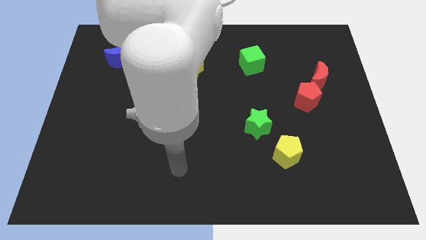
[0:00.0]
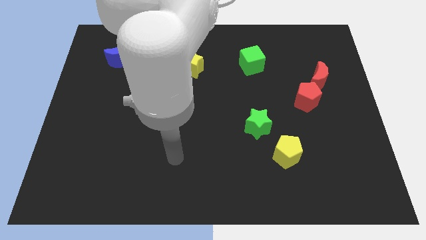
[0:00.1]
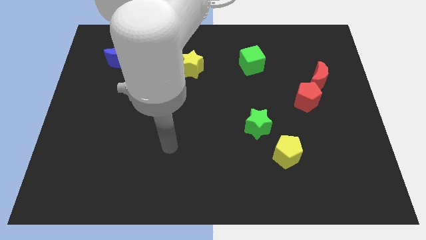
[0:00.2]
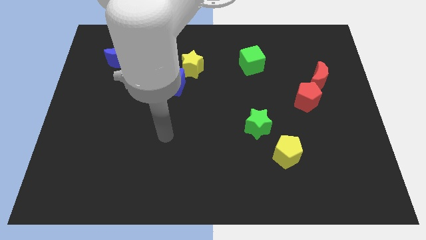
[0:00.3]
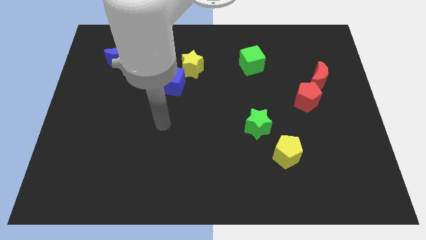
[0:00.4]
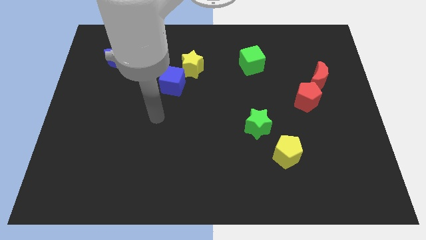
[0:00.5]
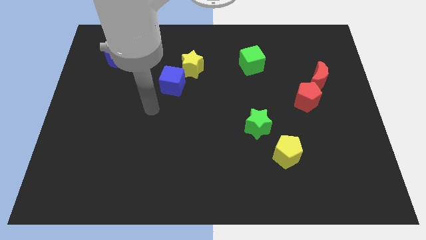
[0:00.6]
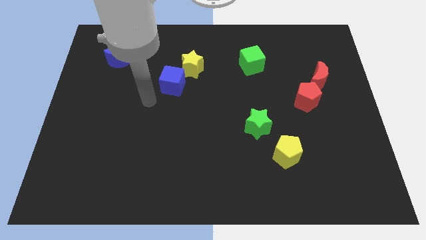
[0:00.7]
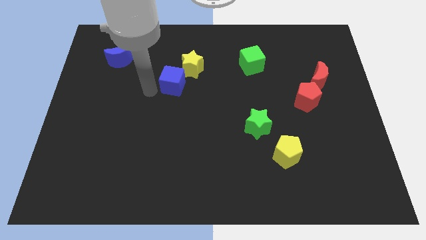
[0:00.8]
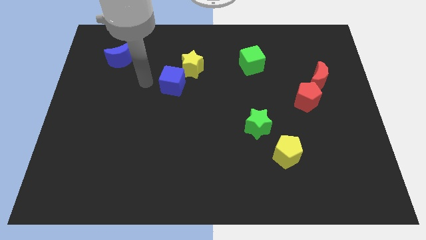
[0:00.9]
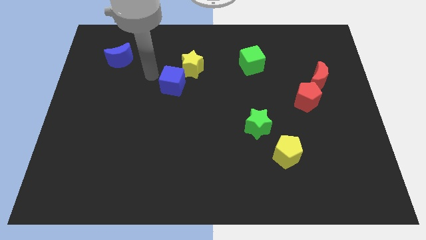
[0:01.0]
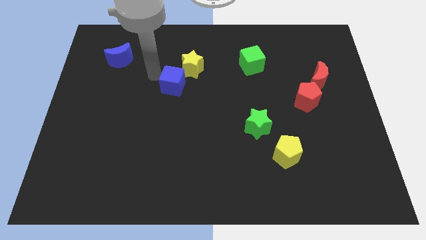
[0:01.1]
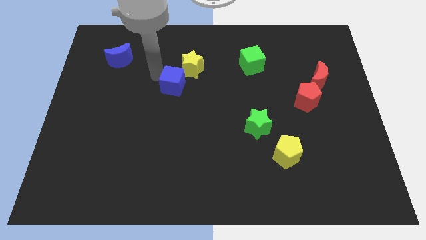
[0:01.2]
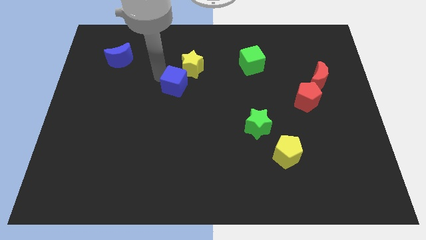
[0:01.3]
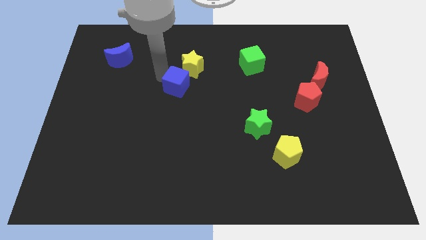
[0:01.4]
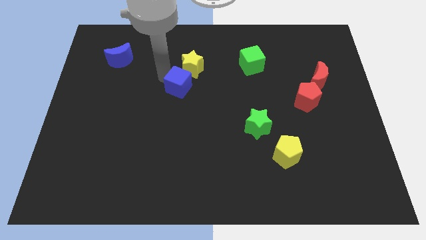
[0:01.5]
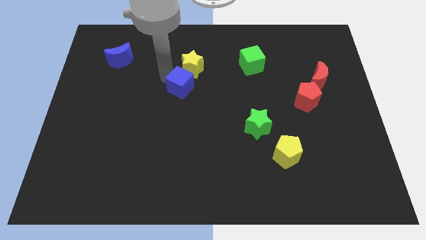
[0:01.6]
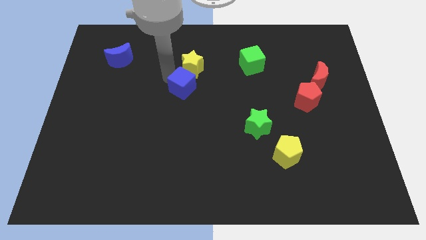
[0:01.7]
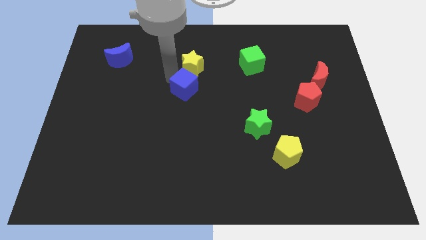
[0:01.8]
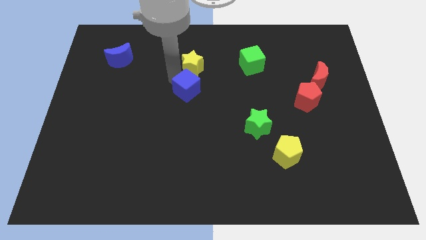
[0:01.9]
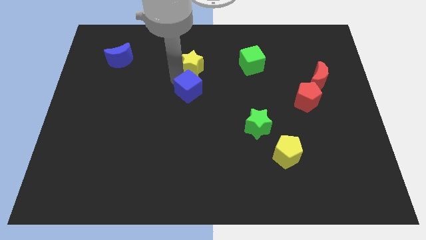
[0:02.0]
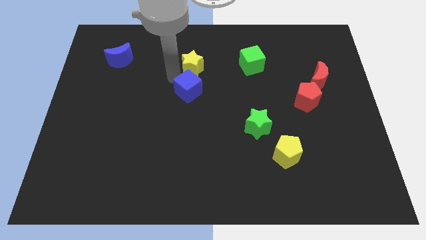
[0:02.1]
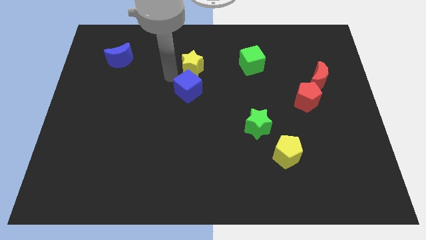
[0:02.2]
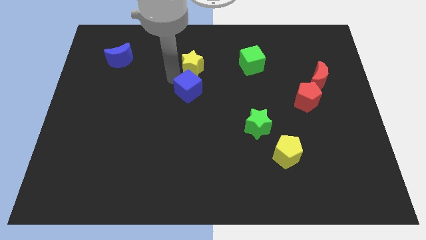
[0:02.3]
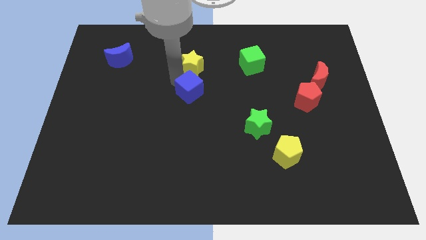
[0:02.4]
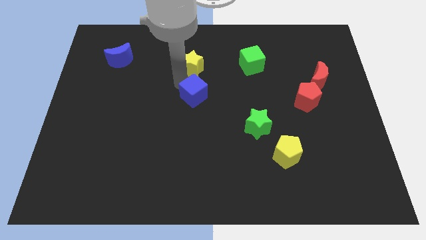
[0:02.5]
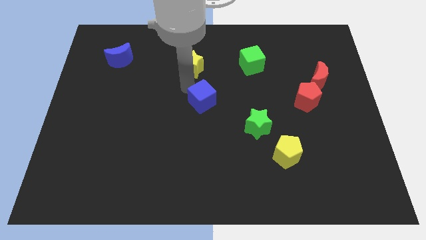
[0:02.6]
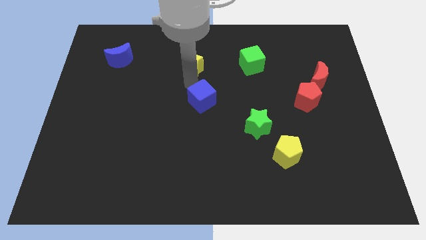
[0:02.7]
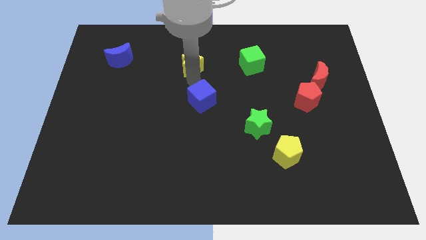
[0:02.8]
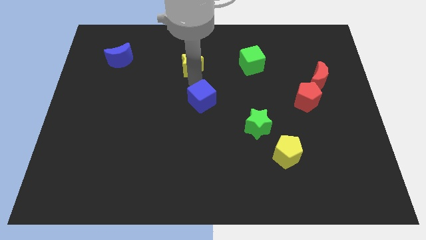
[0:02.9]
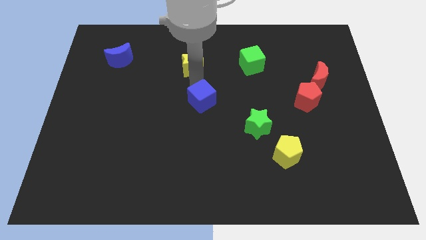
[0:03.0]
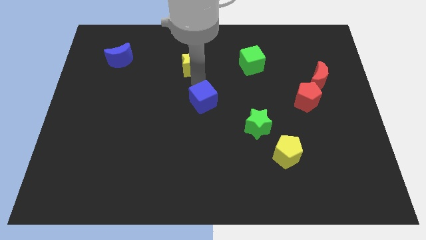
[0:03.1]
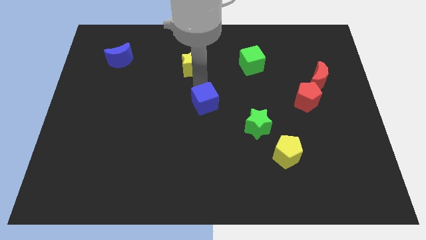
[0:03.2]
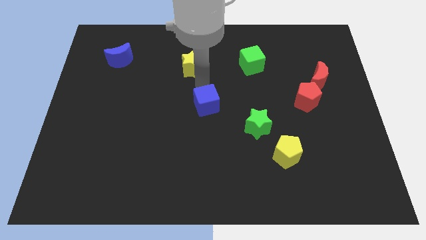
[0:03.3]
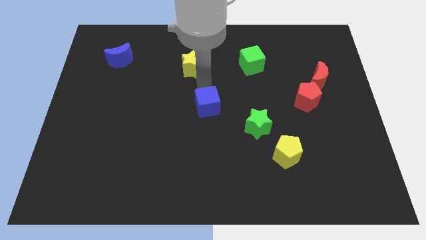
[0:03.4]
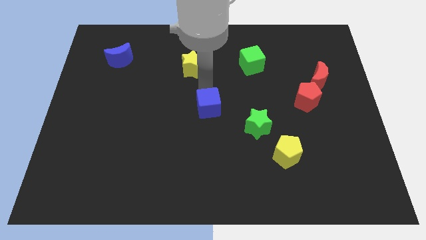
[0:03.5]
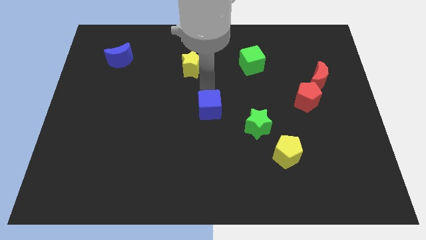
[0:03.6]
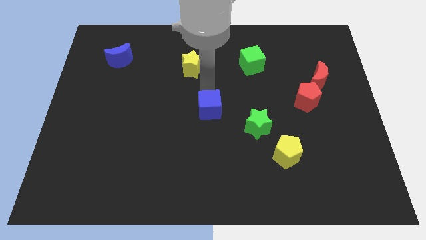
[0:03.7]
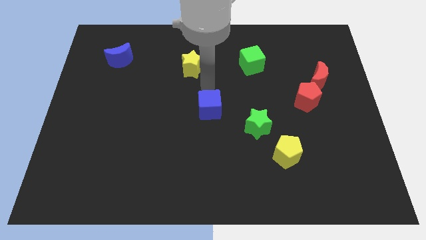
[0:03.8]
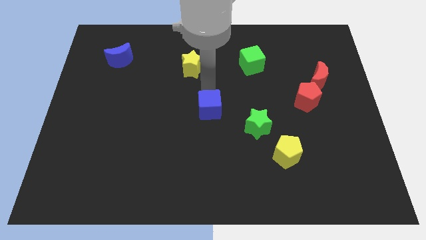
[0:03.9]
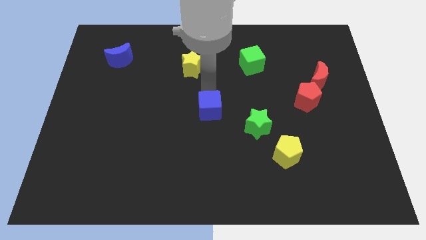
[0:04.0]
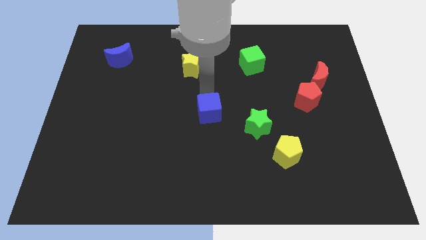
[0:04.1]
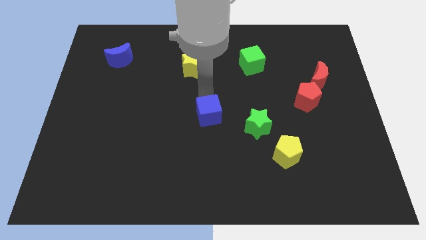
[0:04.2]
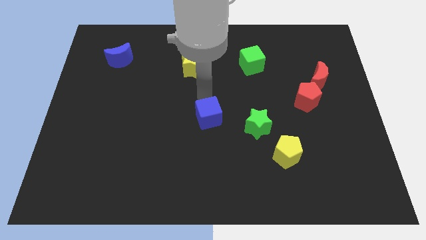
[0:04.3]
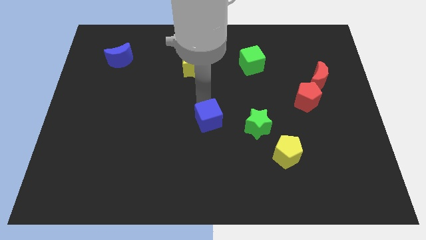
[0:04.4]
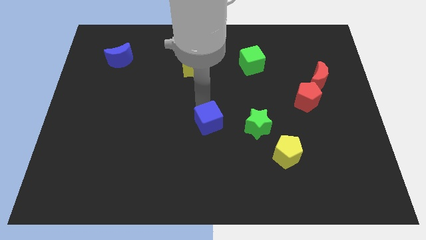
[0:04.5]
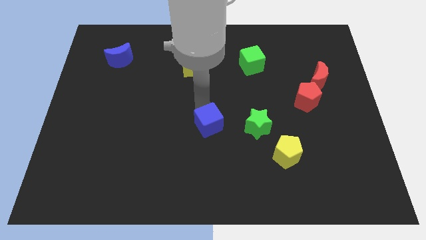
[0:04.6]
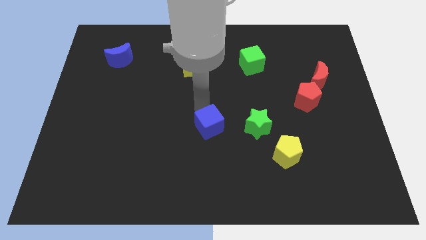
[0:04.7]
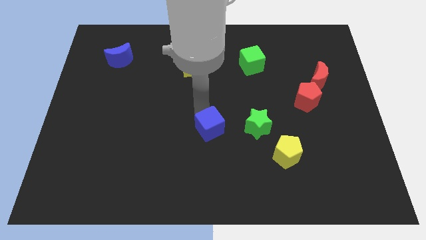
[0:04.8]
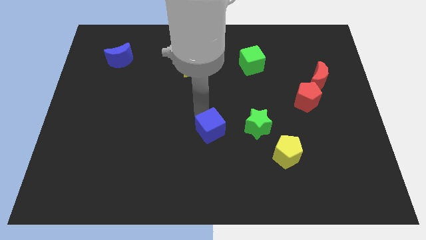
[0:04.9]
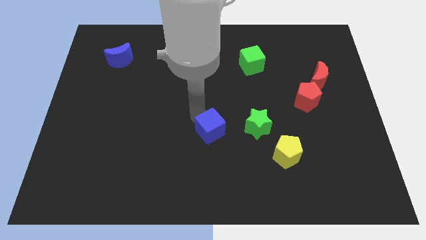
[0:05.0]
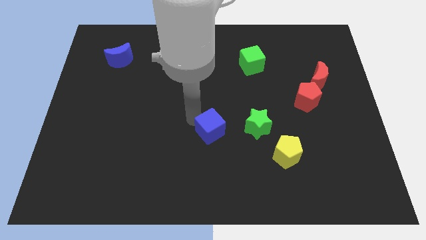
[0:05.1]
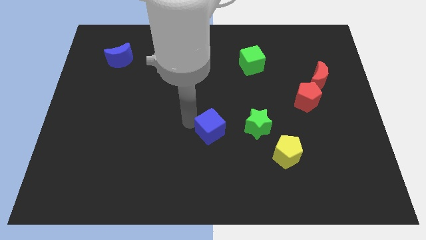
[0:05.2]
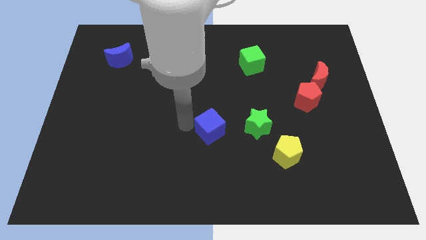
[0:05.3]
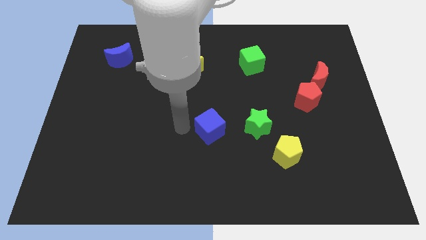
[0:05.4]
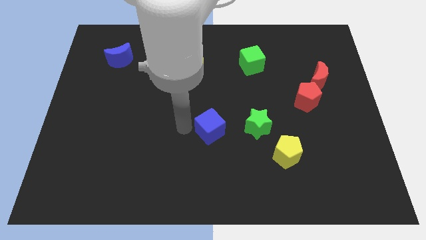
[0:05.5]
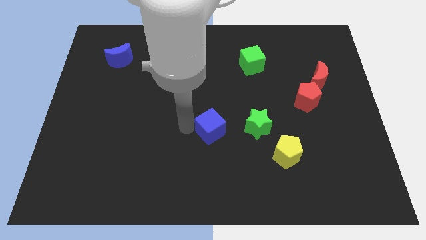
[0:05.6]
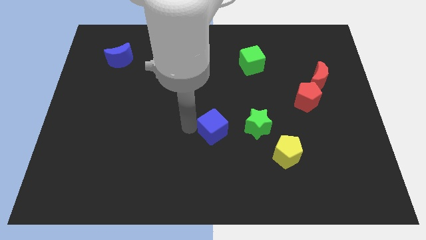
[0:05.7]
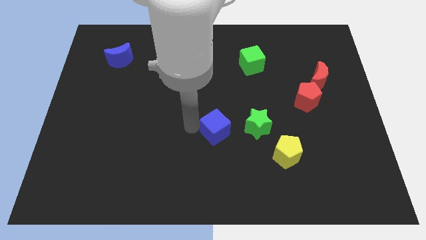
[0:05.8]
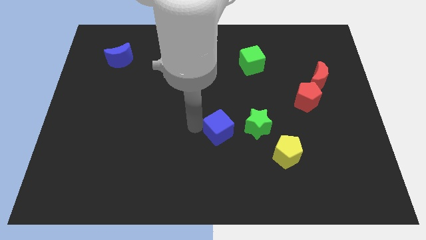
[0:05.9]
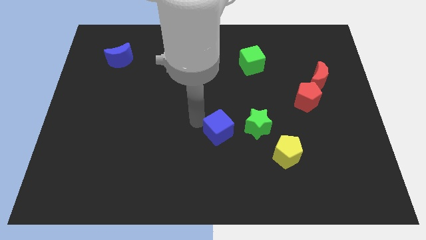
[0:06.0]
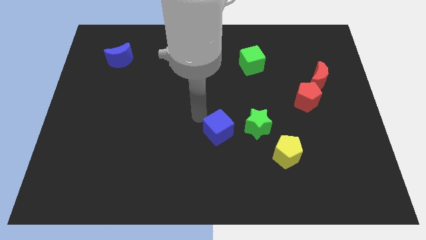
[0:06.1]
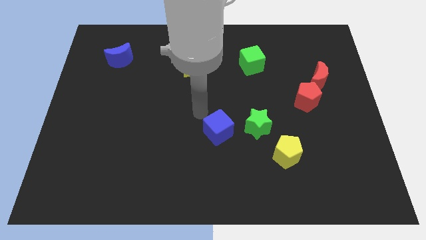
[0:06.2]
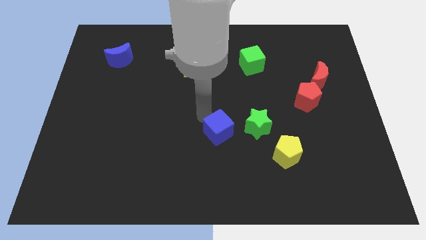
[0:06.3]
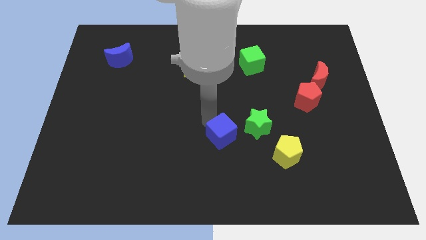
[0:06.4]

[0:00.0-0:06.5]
move the blue cube diagonally down and to the left of the green star

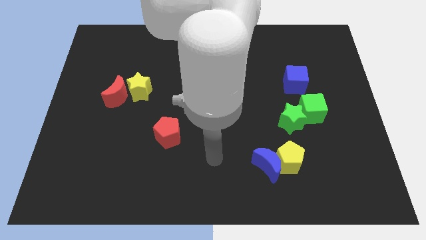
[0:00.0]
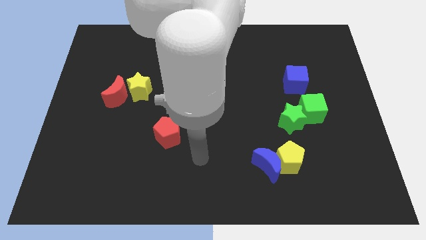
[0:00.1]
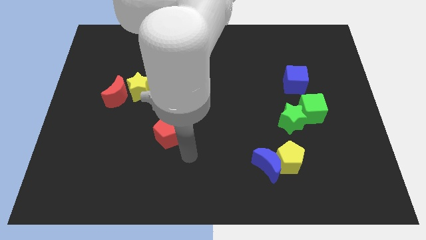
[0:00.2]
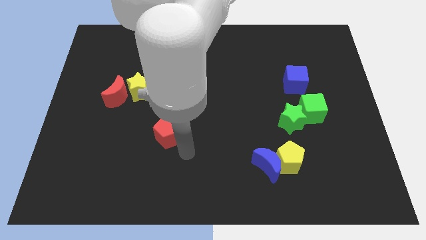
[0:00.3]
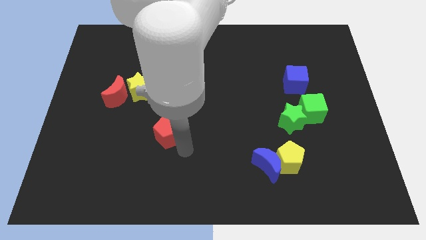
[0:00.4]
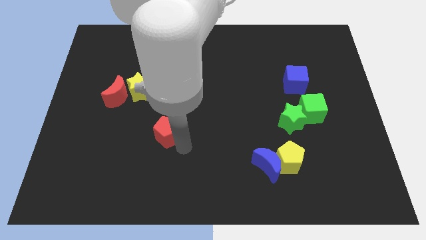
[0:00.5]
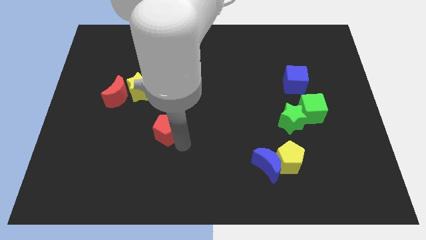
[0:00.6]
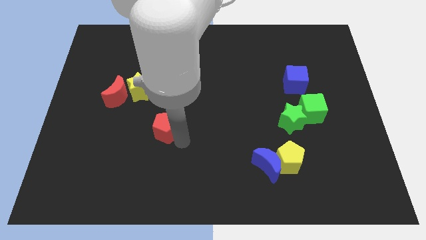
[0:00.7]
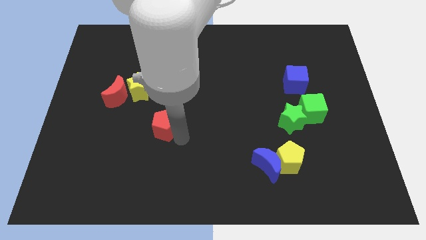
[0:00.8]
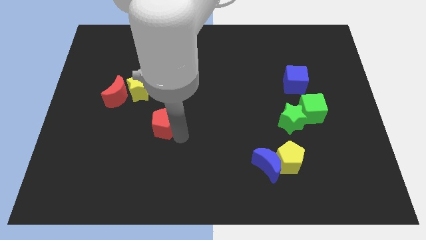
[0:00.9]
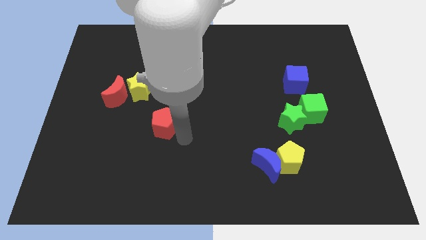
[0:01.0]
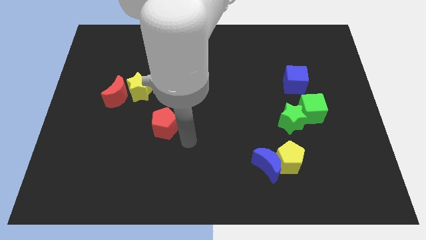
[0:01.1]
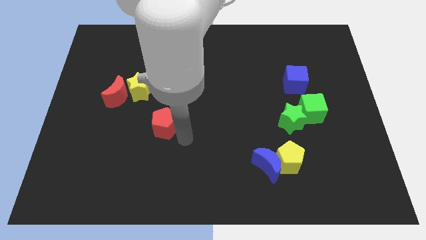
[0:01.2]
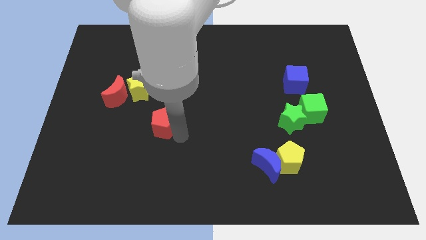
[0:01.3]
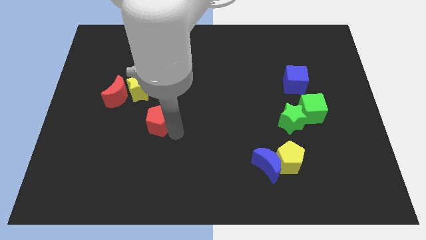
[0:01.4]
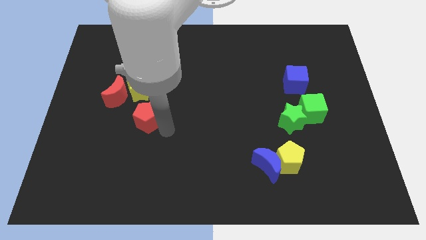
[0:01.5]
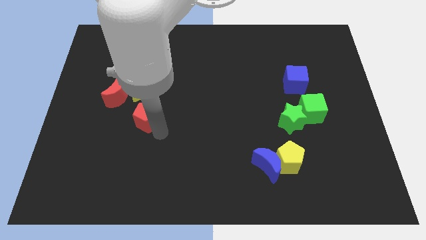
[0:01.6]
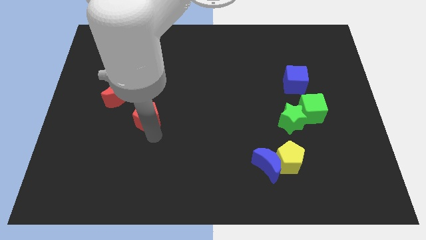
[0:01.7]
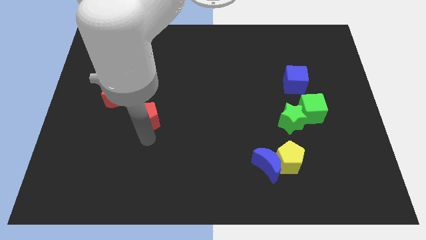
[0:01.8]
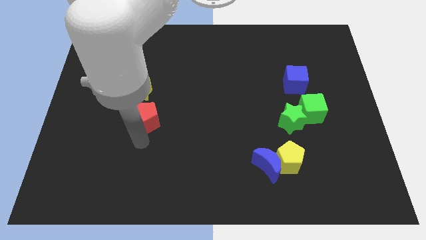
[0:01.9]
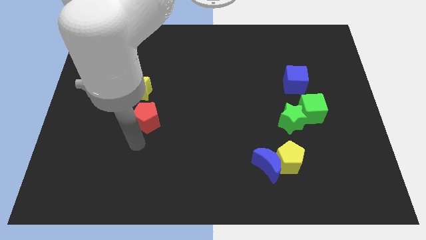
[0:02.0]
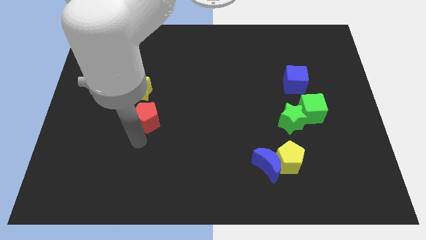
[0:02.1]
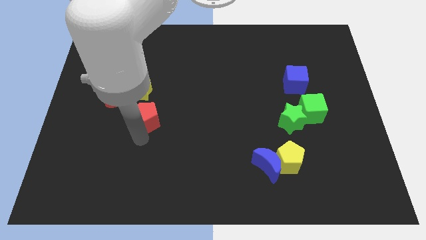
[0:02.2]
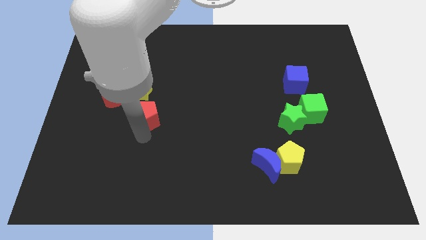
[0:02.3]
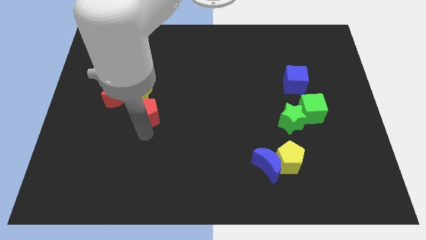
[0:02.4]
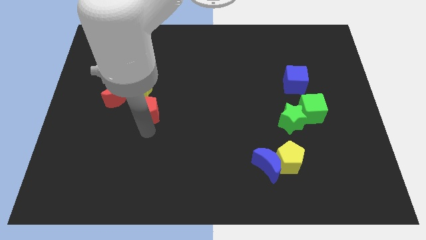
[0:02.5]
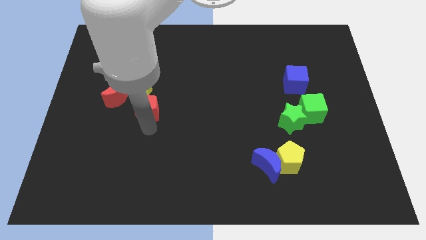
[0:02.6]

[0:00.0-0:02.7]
put the red pentagon to the right side of the red moon
